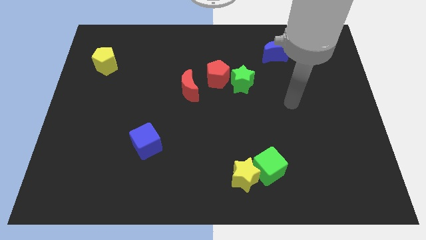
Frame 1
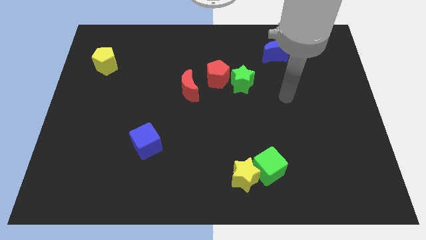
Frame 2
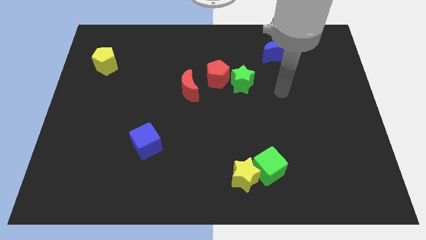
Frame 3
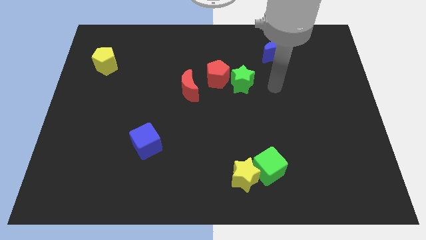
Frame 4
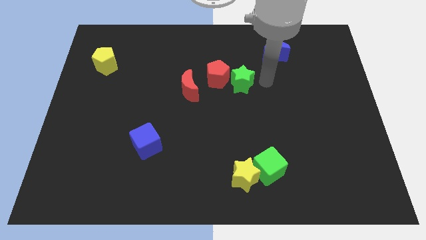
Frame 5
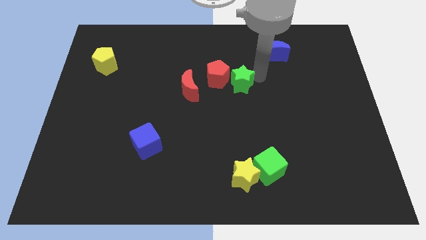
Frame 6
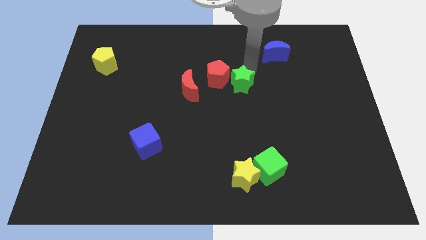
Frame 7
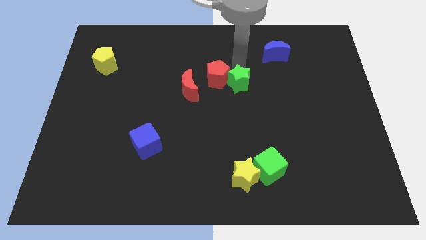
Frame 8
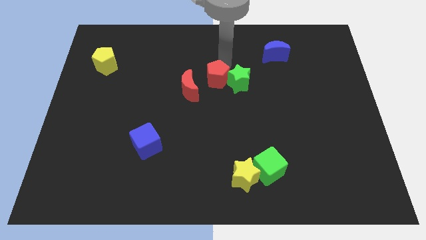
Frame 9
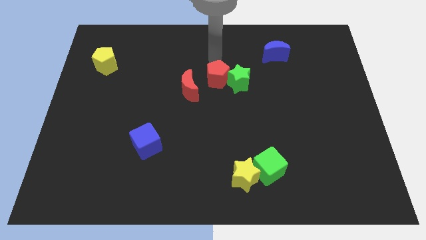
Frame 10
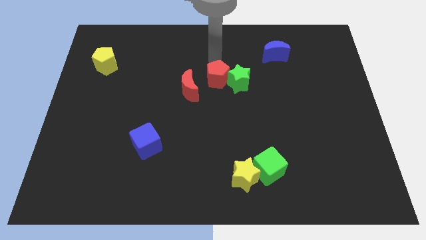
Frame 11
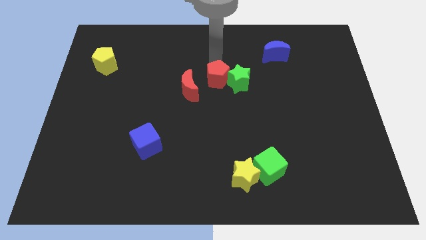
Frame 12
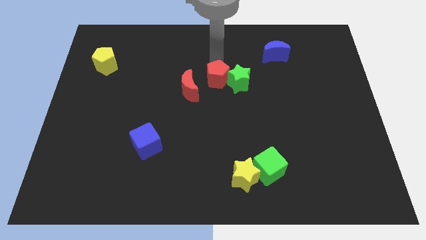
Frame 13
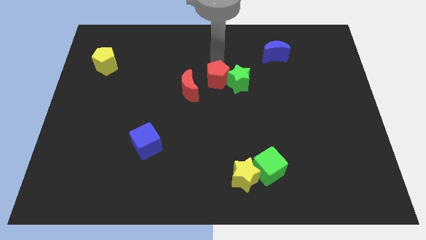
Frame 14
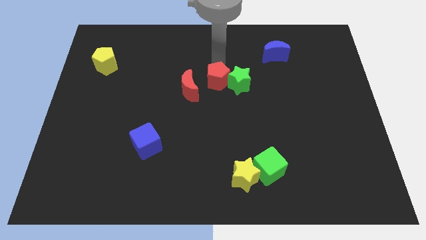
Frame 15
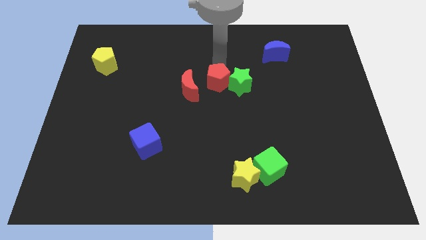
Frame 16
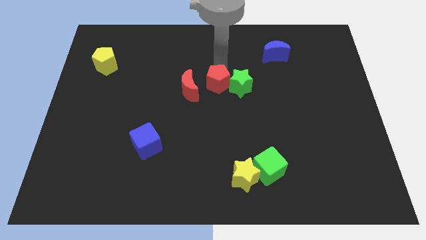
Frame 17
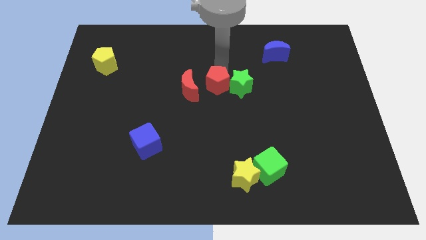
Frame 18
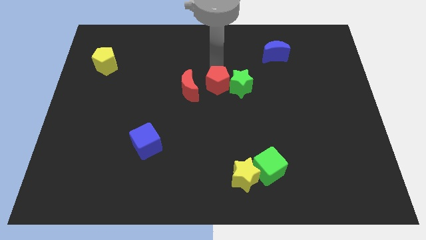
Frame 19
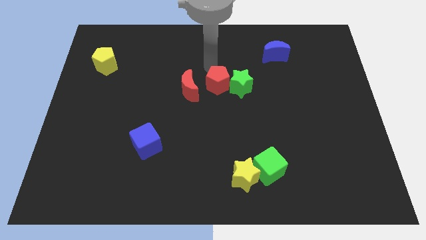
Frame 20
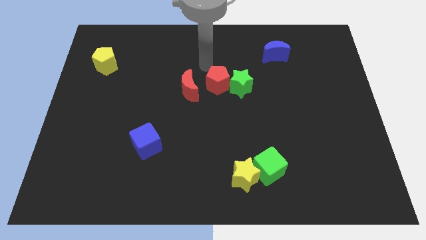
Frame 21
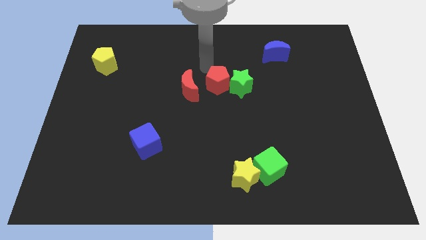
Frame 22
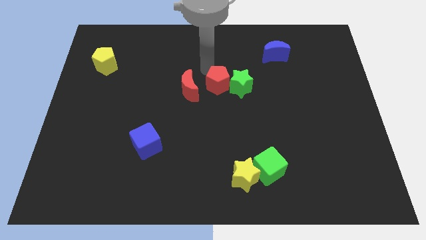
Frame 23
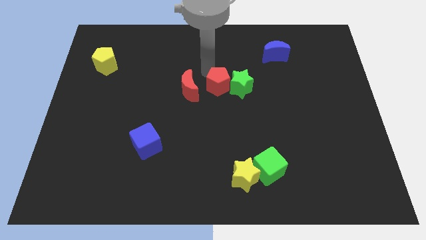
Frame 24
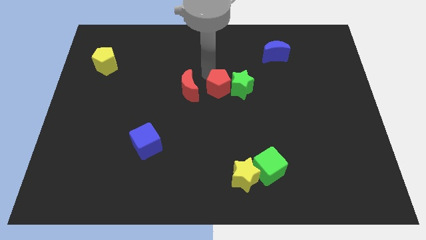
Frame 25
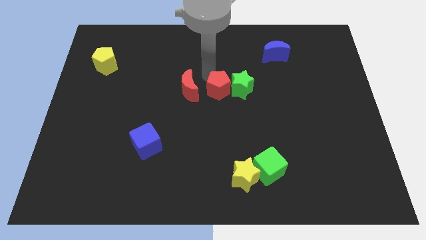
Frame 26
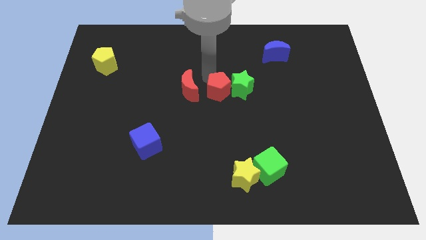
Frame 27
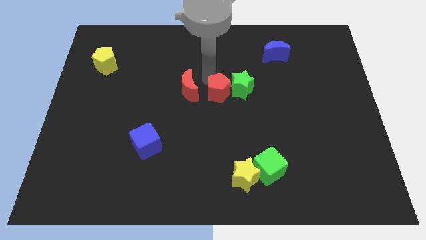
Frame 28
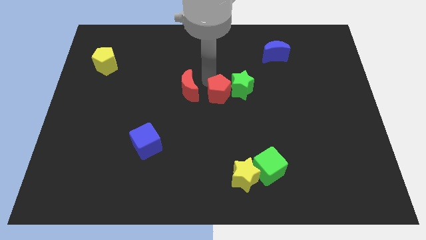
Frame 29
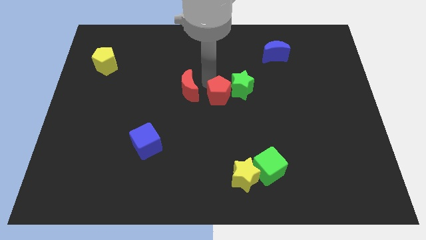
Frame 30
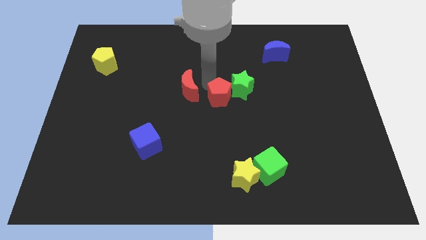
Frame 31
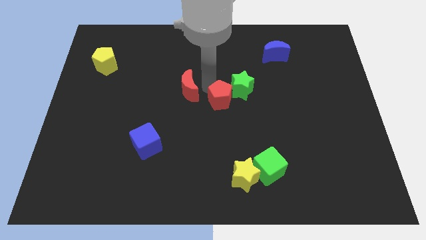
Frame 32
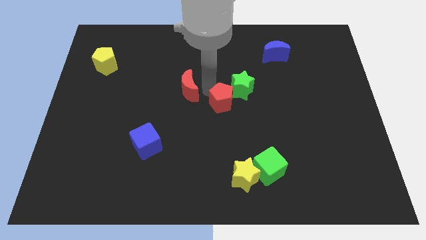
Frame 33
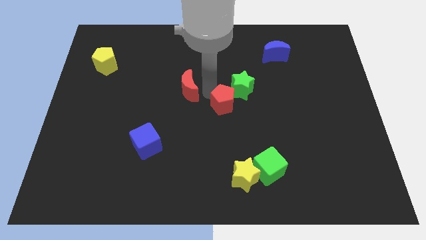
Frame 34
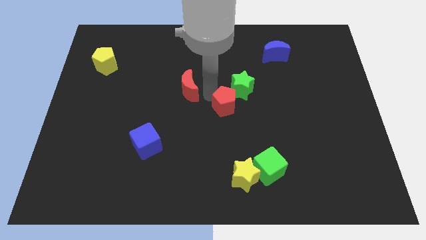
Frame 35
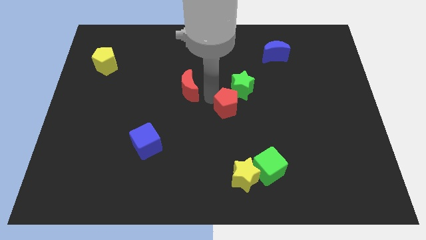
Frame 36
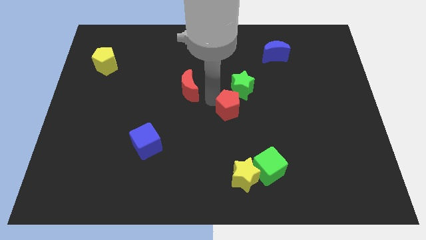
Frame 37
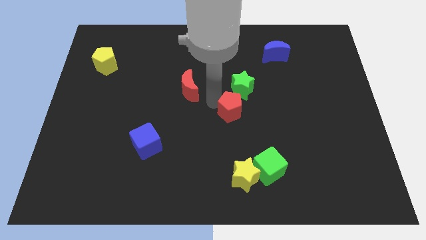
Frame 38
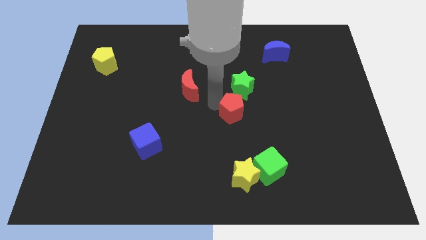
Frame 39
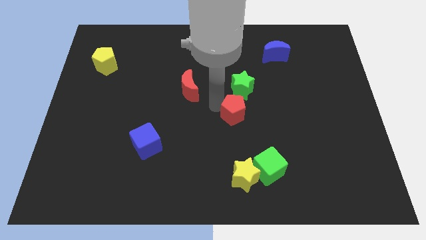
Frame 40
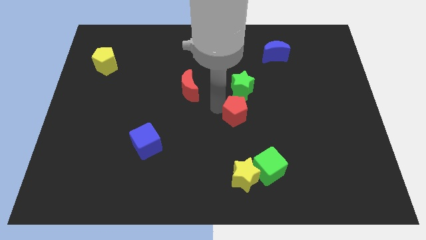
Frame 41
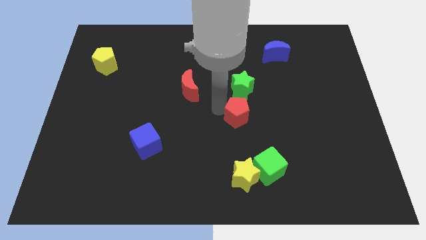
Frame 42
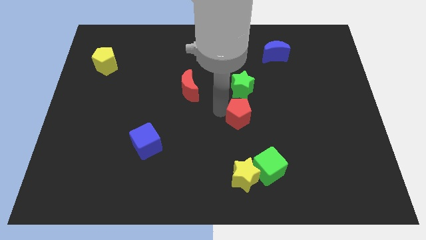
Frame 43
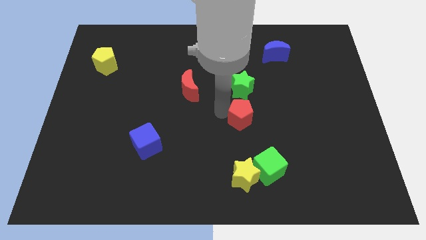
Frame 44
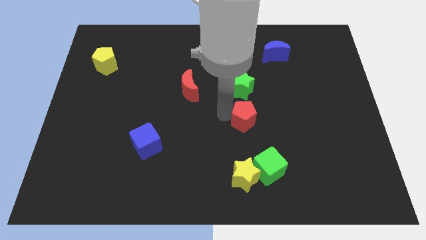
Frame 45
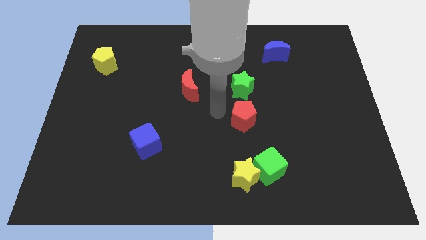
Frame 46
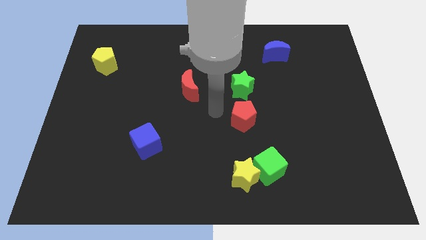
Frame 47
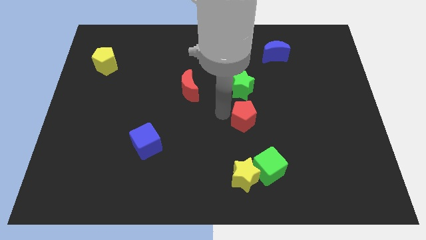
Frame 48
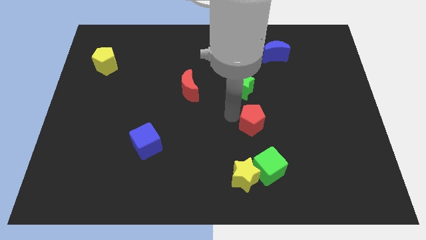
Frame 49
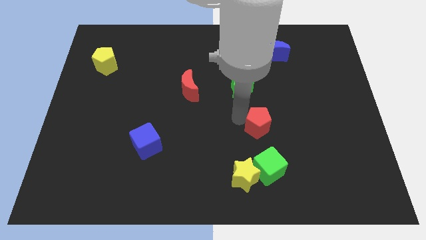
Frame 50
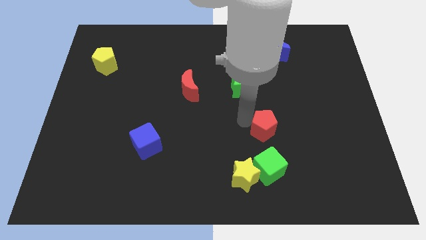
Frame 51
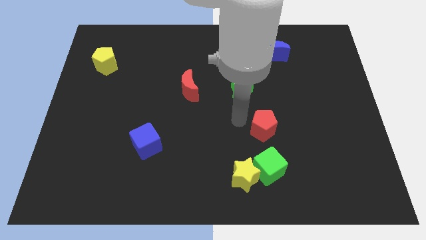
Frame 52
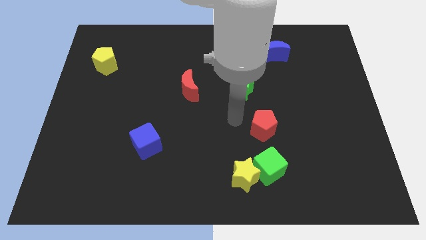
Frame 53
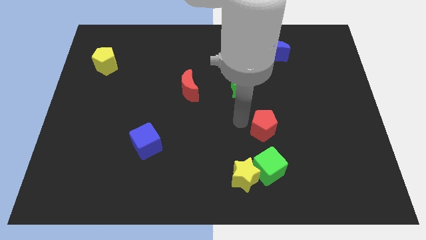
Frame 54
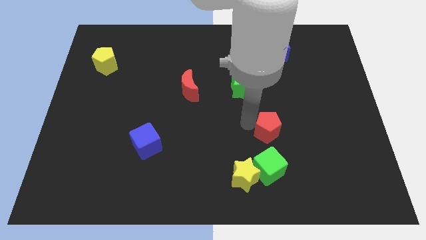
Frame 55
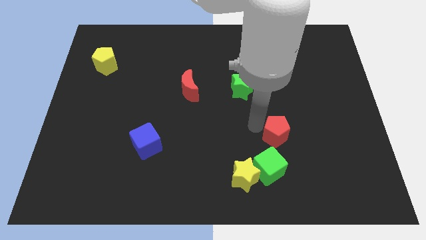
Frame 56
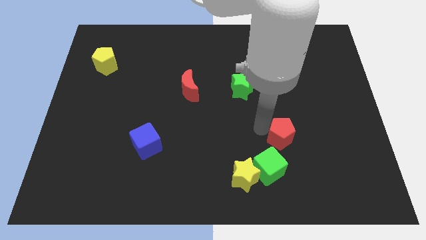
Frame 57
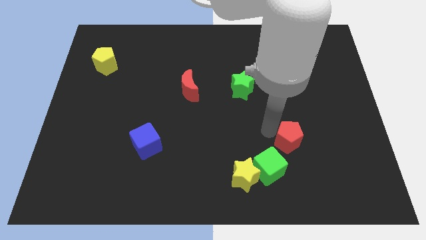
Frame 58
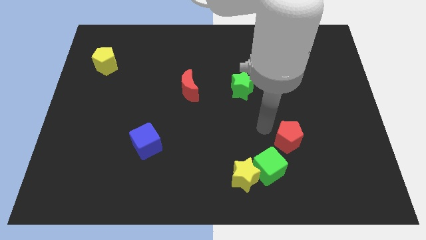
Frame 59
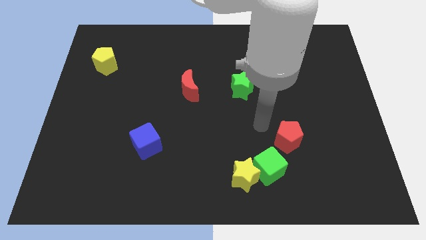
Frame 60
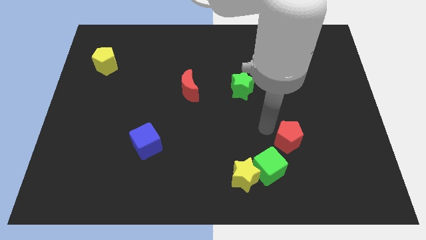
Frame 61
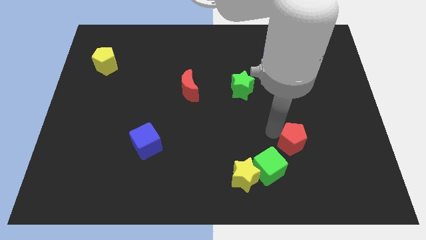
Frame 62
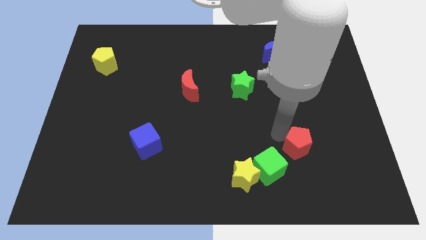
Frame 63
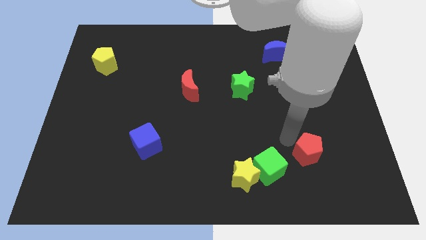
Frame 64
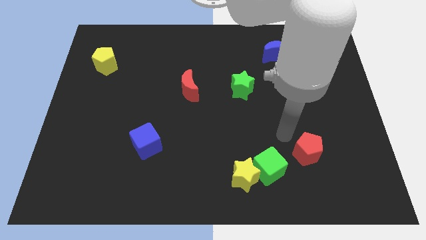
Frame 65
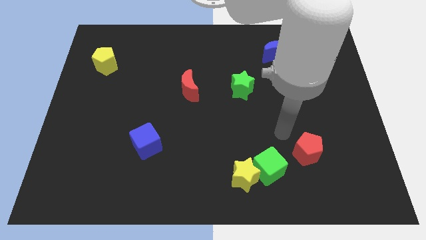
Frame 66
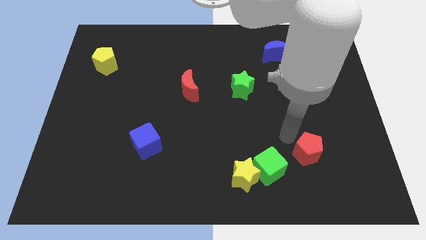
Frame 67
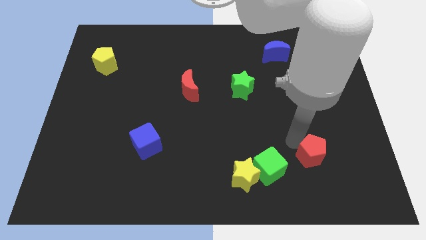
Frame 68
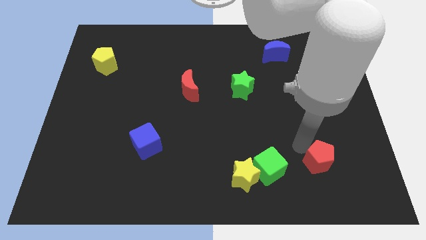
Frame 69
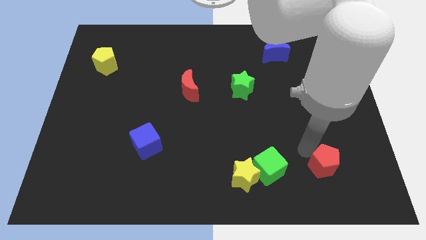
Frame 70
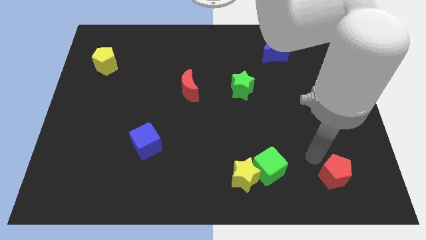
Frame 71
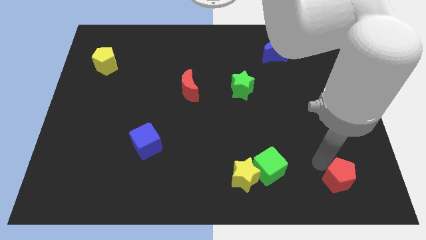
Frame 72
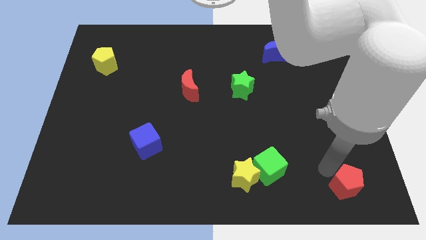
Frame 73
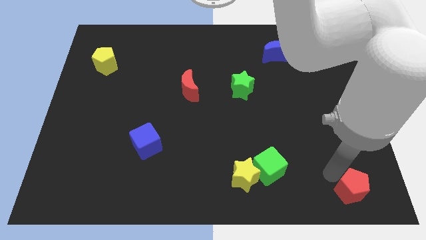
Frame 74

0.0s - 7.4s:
put the red pentagon to the lower right corner
